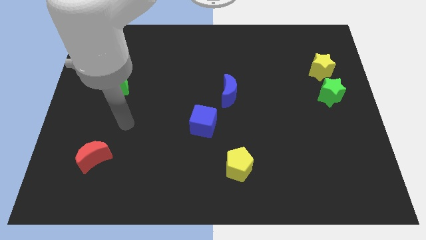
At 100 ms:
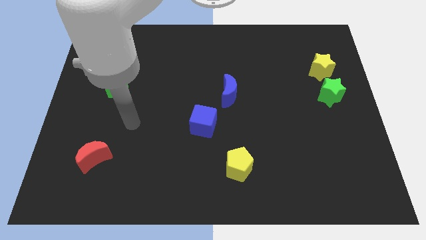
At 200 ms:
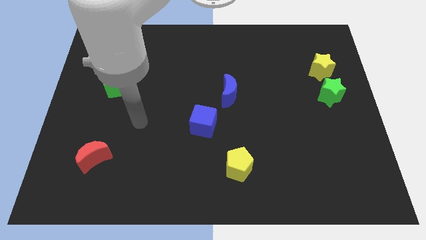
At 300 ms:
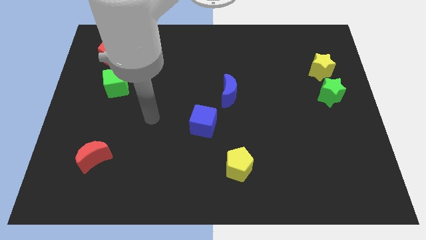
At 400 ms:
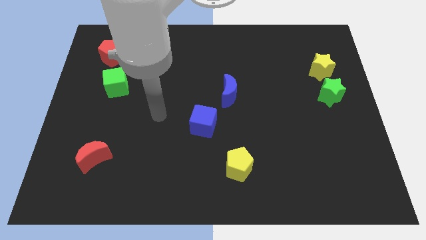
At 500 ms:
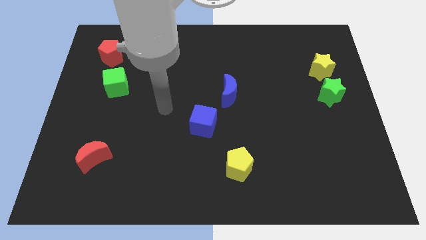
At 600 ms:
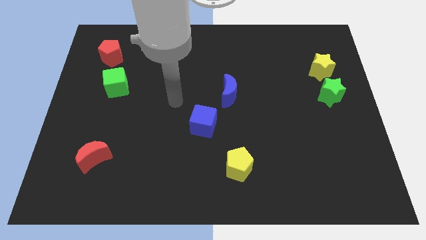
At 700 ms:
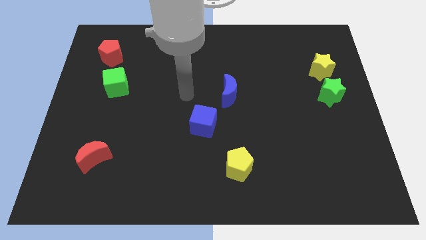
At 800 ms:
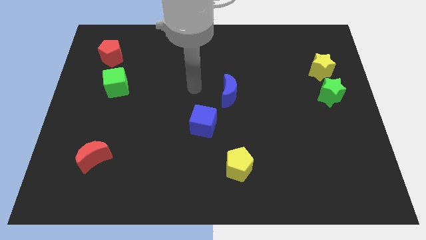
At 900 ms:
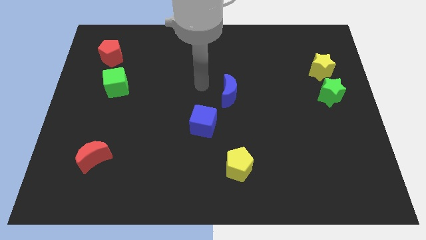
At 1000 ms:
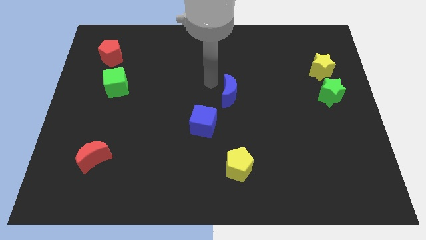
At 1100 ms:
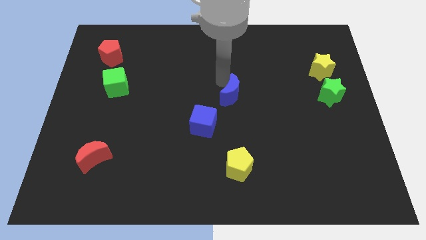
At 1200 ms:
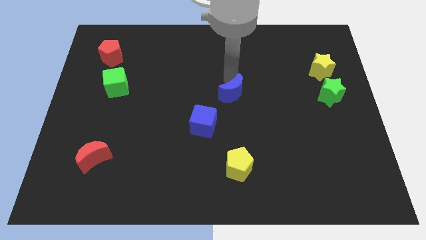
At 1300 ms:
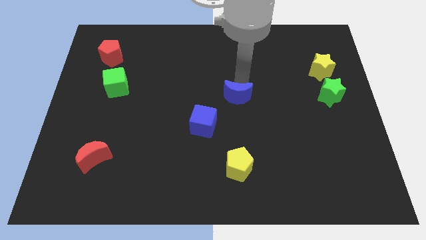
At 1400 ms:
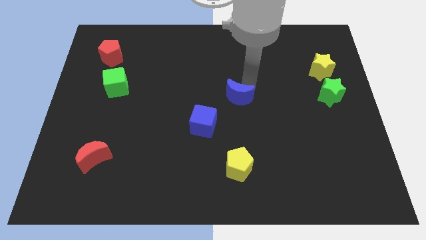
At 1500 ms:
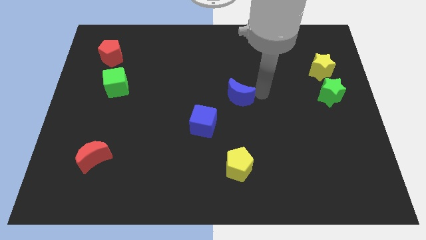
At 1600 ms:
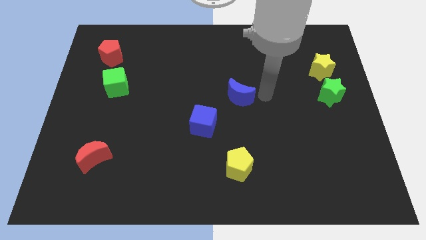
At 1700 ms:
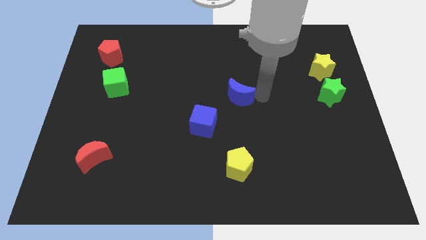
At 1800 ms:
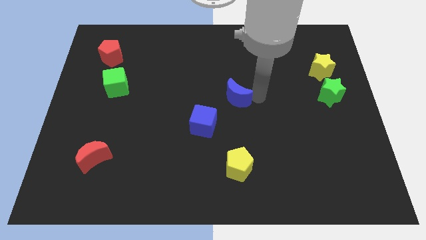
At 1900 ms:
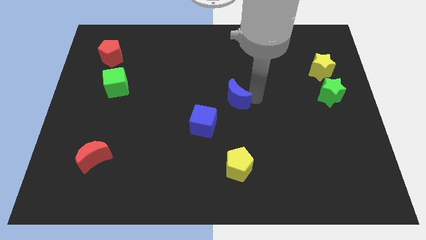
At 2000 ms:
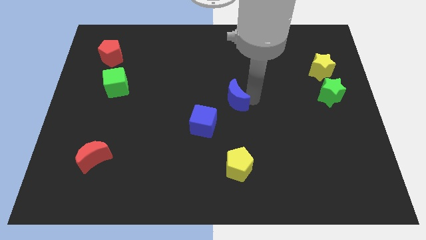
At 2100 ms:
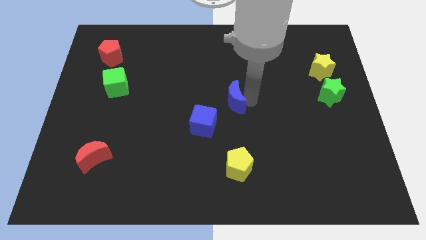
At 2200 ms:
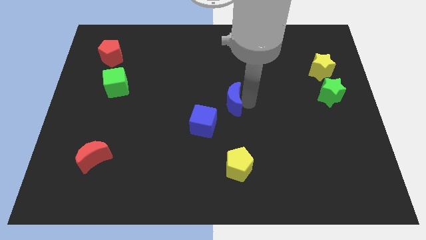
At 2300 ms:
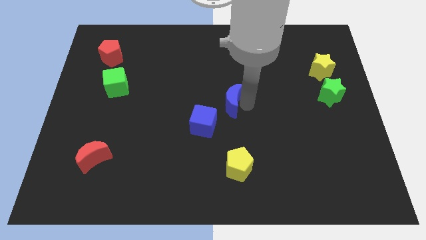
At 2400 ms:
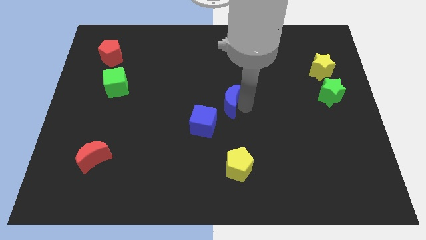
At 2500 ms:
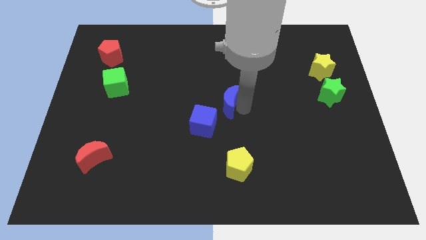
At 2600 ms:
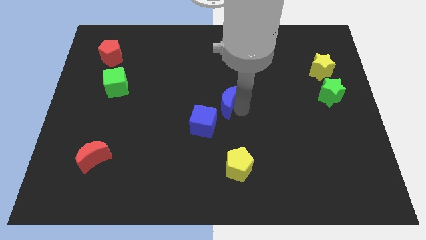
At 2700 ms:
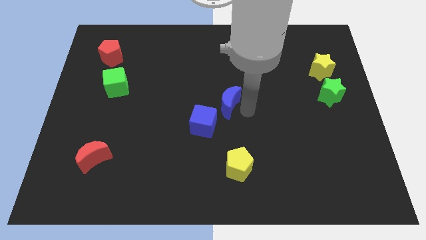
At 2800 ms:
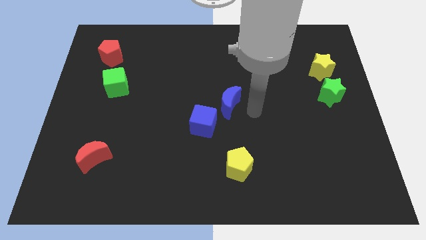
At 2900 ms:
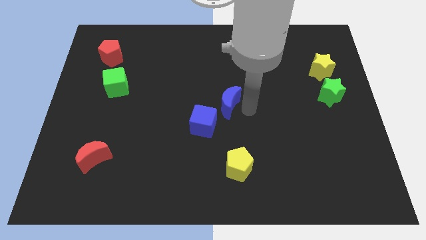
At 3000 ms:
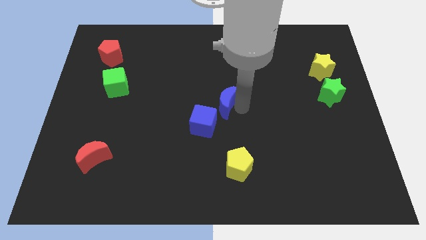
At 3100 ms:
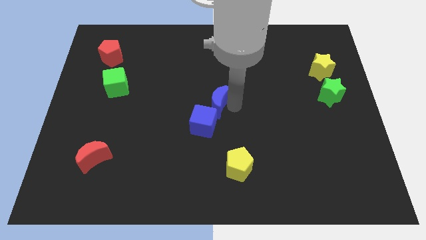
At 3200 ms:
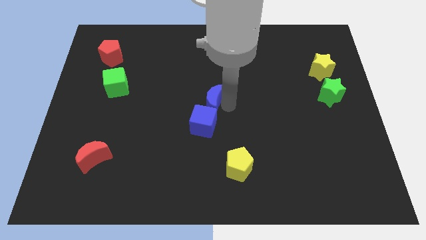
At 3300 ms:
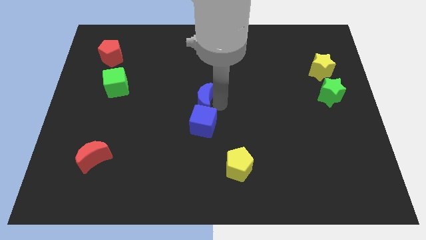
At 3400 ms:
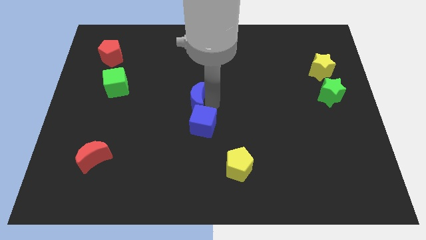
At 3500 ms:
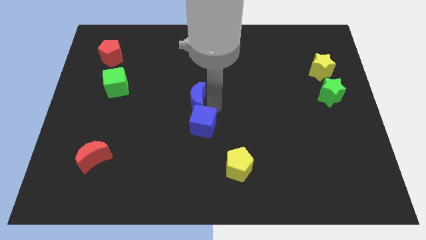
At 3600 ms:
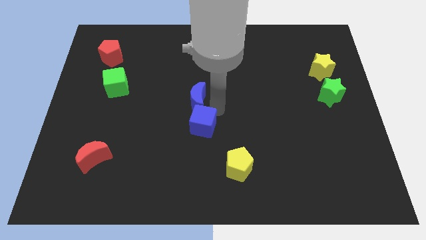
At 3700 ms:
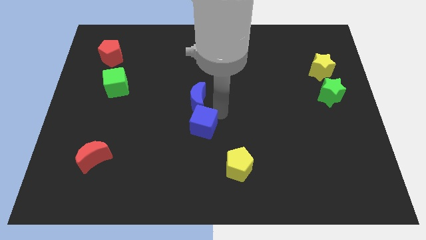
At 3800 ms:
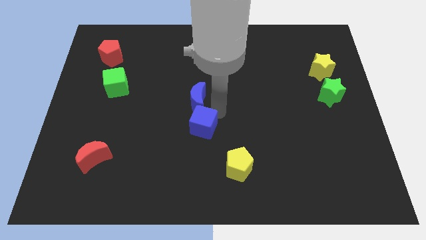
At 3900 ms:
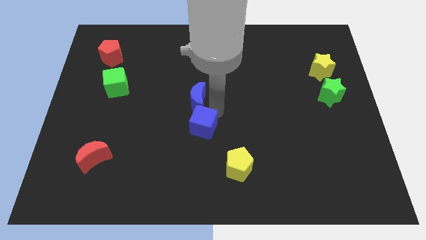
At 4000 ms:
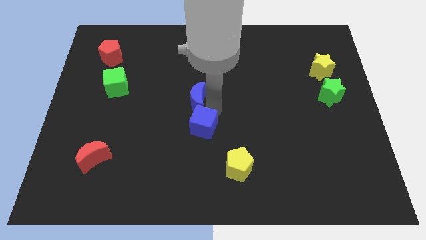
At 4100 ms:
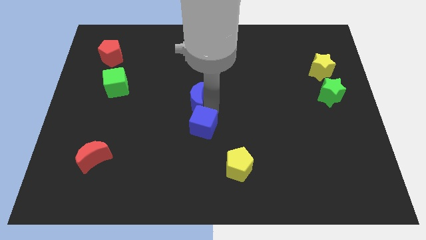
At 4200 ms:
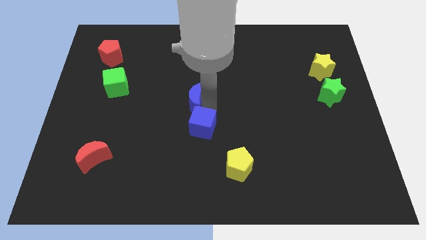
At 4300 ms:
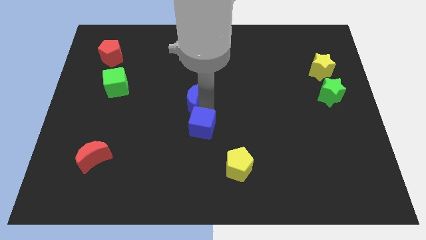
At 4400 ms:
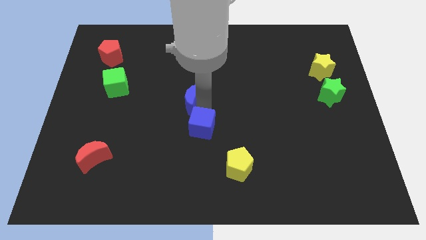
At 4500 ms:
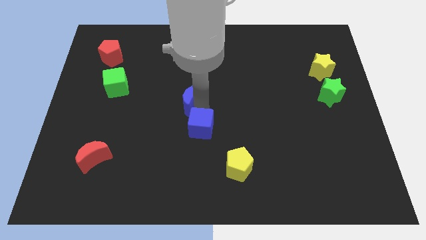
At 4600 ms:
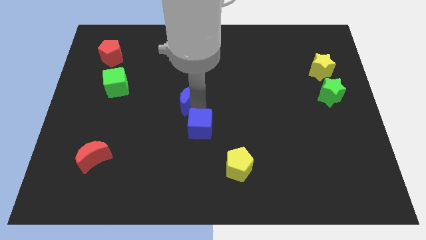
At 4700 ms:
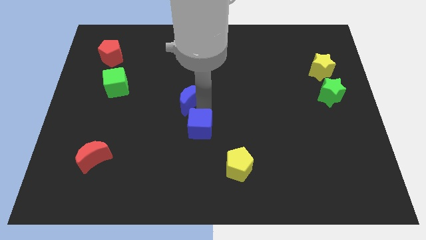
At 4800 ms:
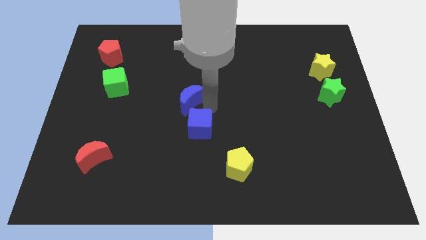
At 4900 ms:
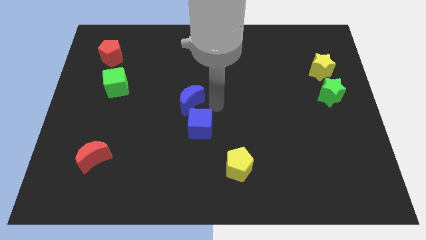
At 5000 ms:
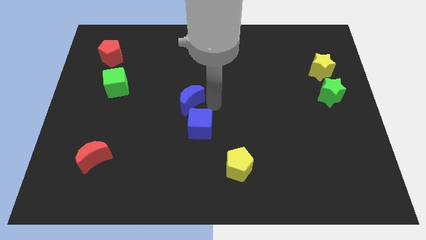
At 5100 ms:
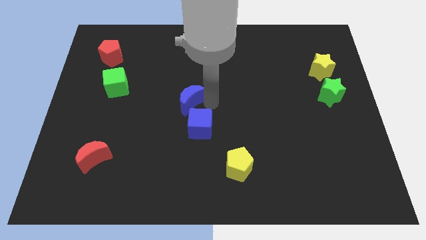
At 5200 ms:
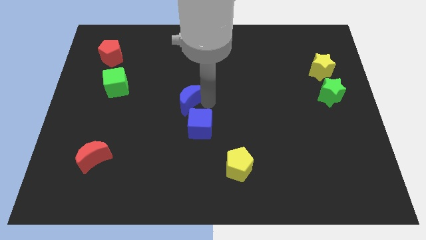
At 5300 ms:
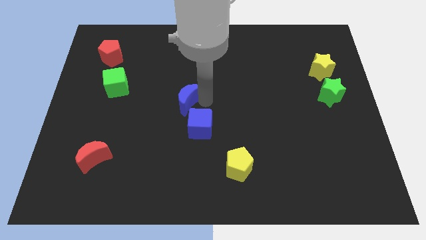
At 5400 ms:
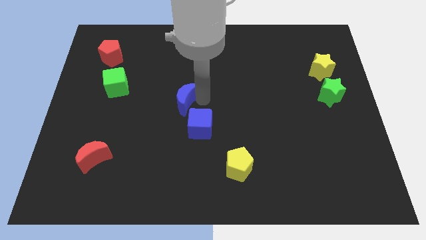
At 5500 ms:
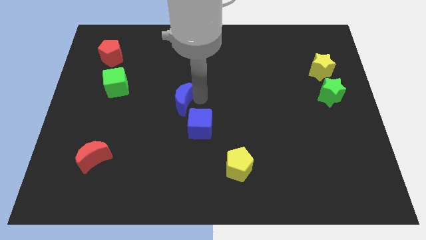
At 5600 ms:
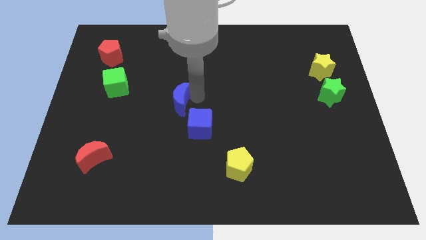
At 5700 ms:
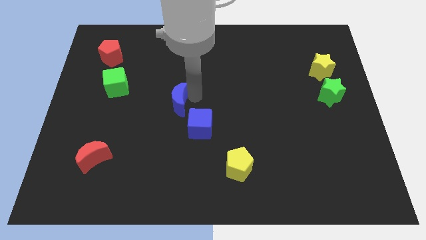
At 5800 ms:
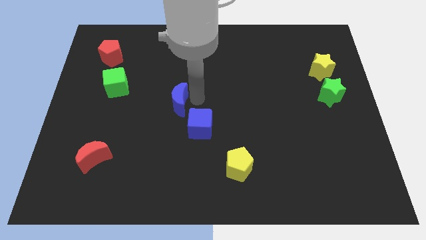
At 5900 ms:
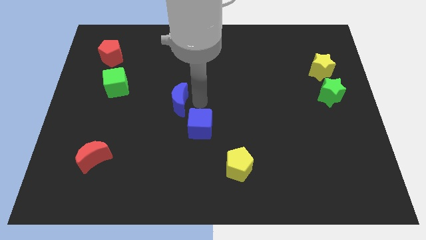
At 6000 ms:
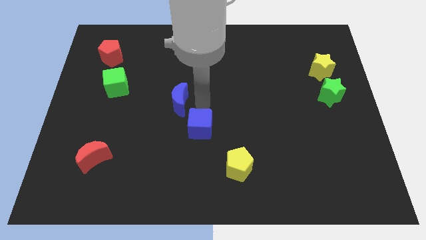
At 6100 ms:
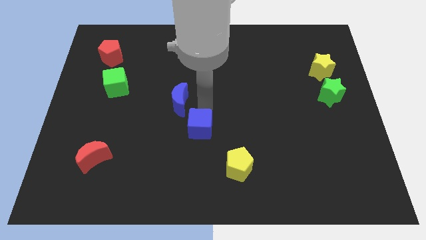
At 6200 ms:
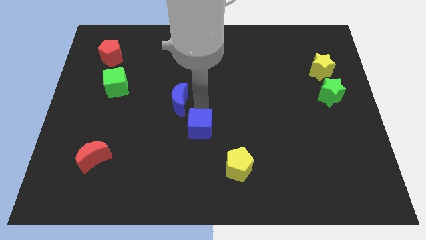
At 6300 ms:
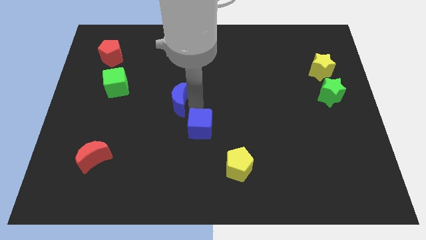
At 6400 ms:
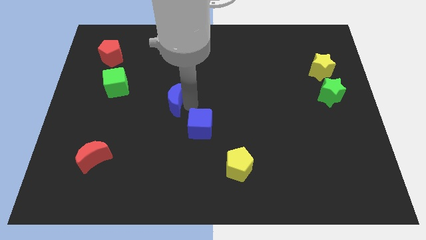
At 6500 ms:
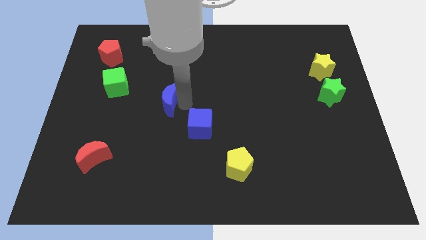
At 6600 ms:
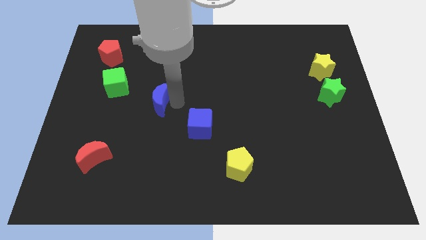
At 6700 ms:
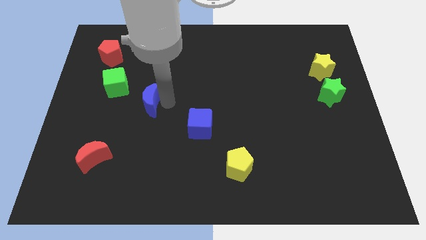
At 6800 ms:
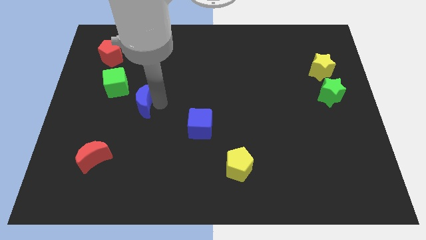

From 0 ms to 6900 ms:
push the blue moon left

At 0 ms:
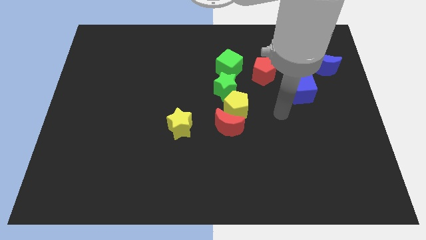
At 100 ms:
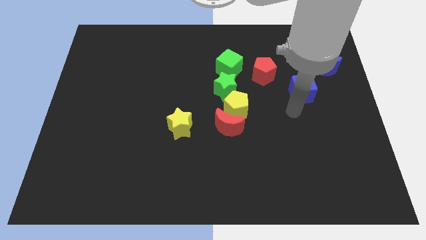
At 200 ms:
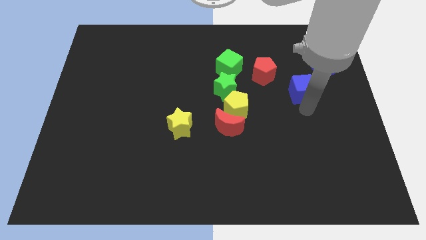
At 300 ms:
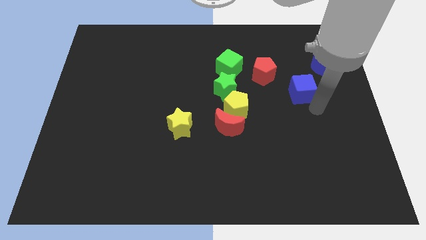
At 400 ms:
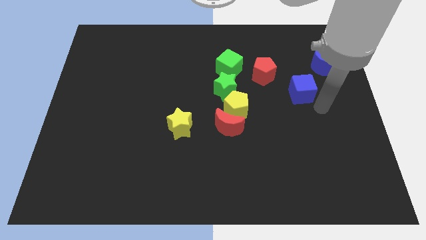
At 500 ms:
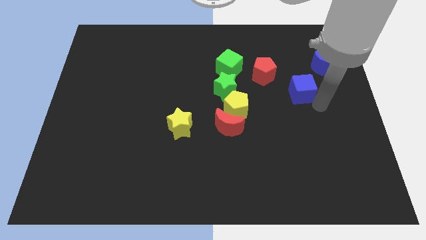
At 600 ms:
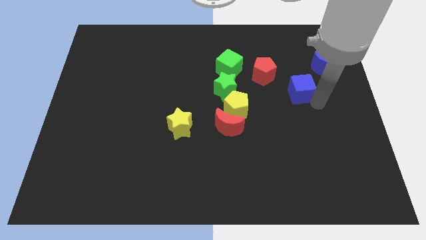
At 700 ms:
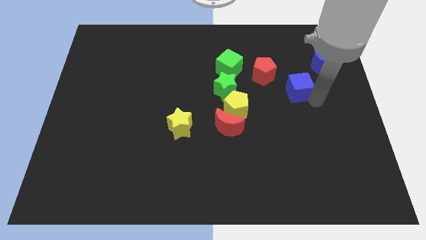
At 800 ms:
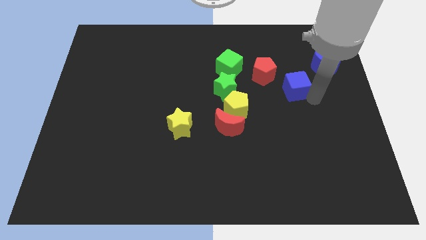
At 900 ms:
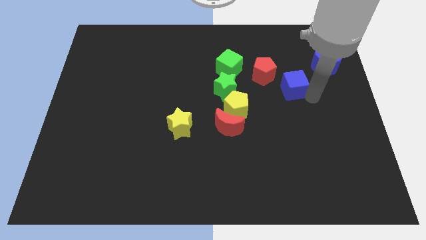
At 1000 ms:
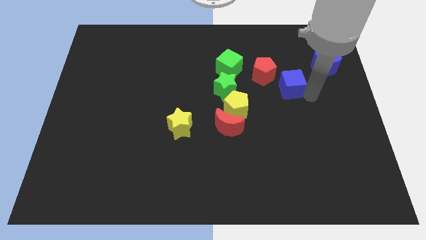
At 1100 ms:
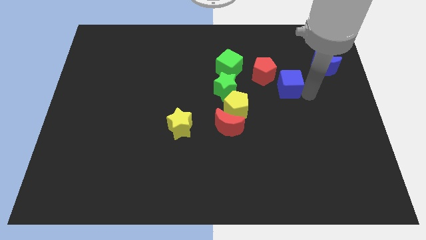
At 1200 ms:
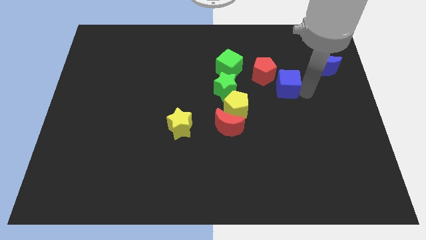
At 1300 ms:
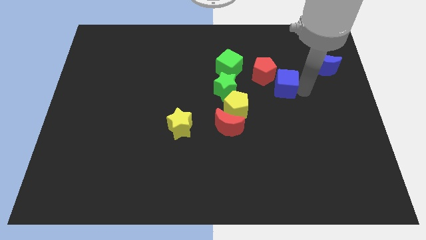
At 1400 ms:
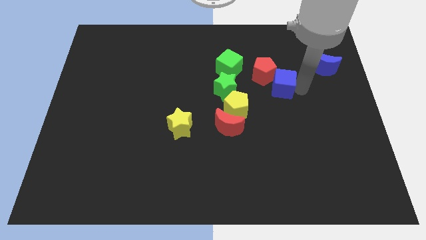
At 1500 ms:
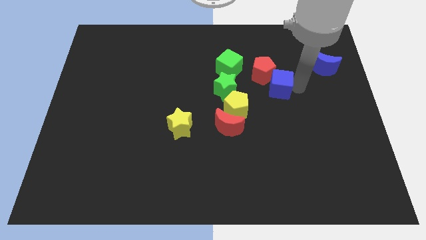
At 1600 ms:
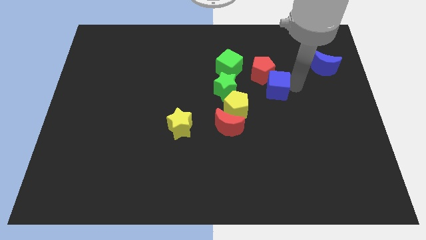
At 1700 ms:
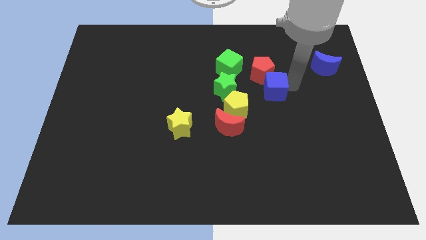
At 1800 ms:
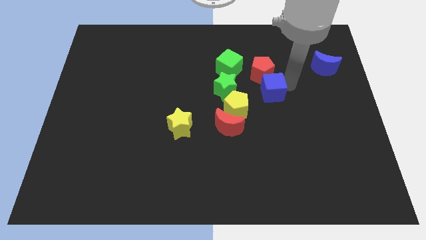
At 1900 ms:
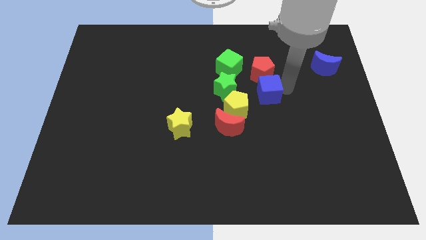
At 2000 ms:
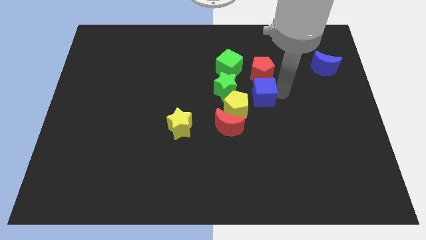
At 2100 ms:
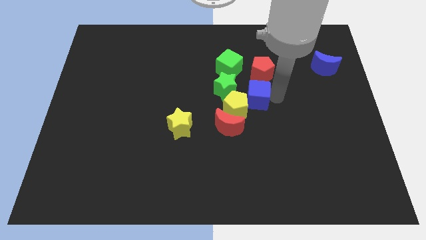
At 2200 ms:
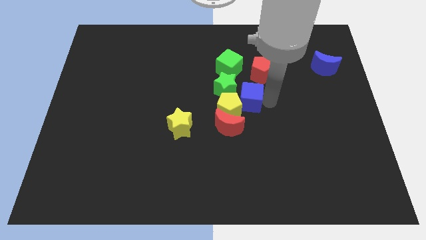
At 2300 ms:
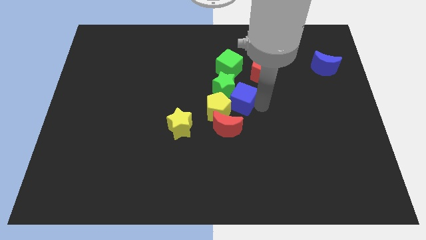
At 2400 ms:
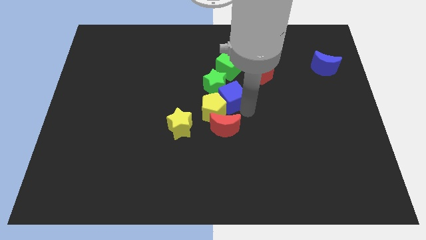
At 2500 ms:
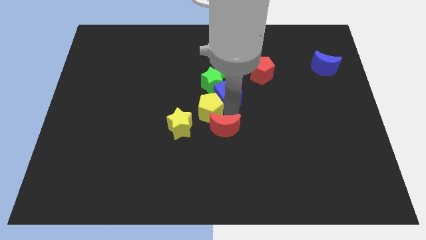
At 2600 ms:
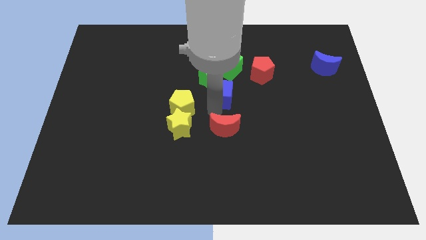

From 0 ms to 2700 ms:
slide the blue cube to the left
